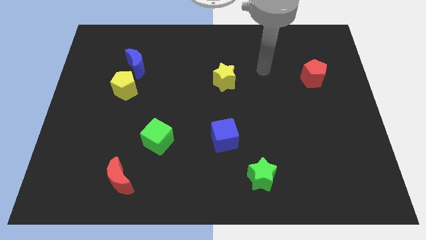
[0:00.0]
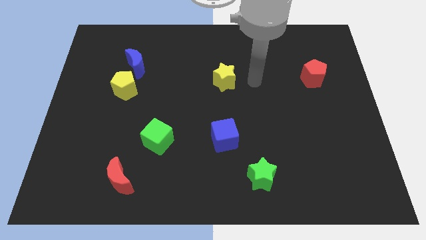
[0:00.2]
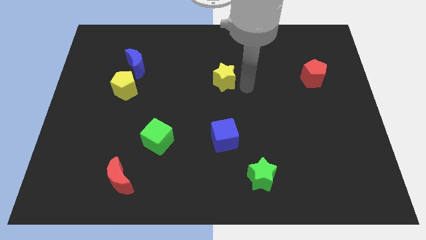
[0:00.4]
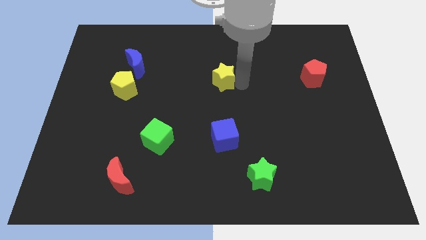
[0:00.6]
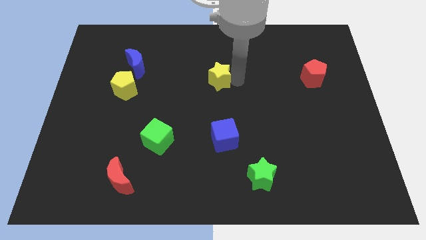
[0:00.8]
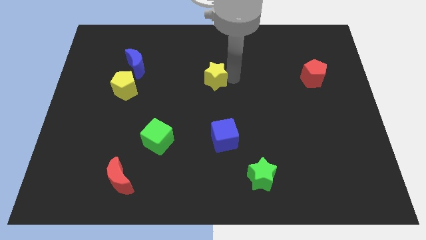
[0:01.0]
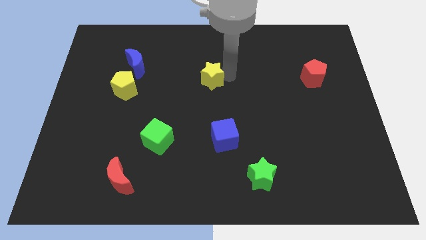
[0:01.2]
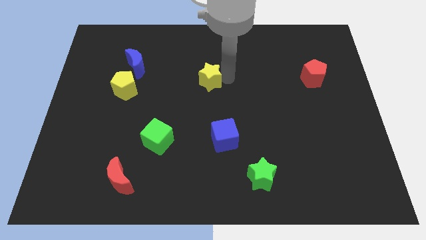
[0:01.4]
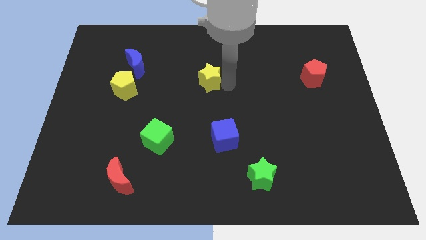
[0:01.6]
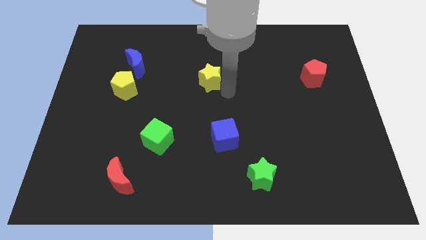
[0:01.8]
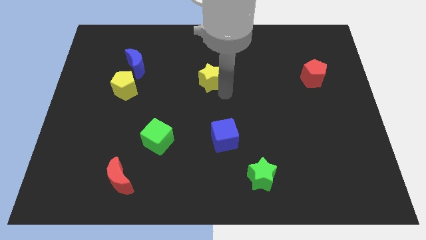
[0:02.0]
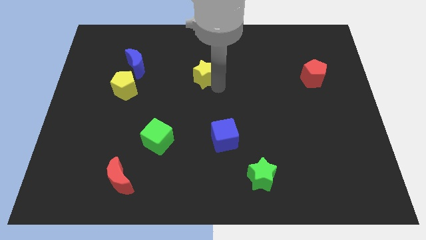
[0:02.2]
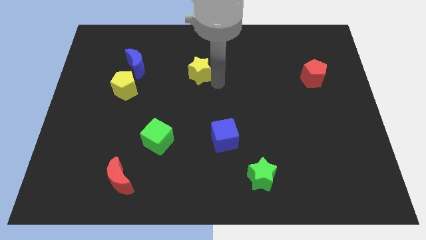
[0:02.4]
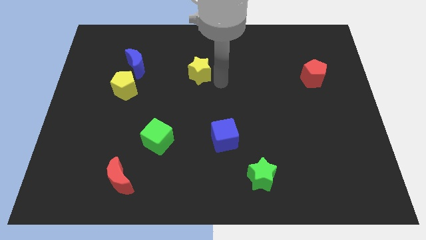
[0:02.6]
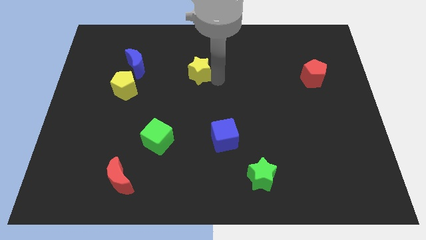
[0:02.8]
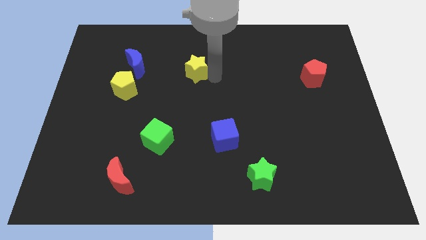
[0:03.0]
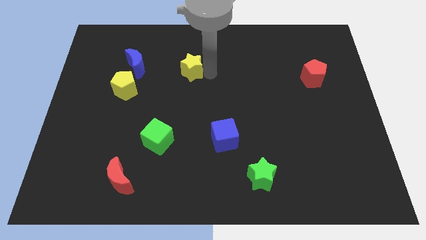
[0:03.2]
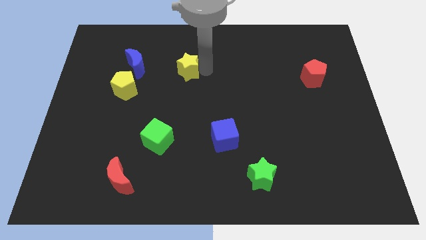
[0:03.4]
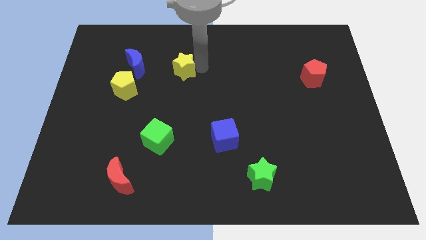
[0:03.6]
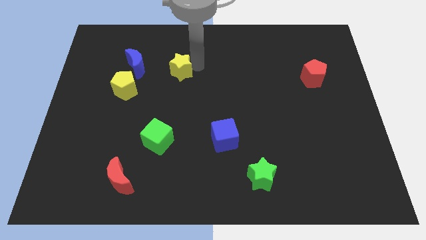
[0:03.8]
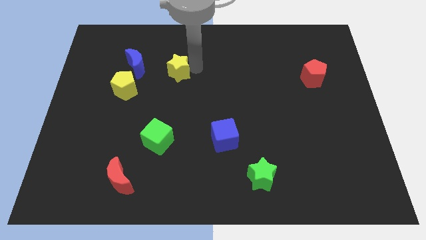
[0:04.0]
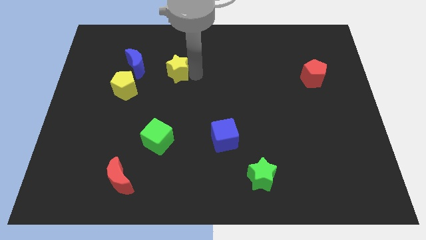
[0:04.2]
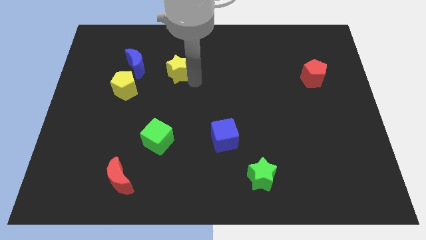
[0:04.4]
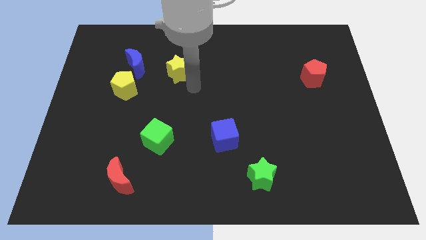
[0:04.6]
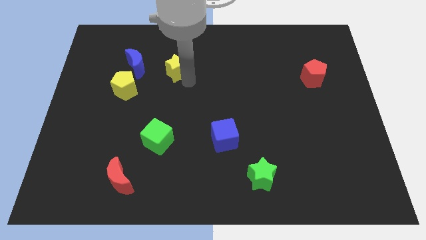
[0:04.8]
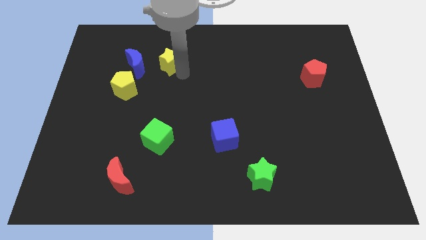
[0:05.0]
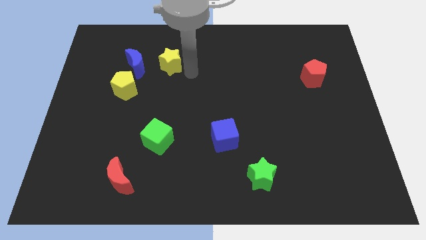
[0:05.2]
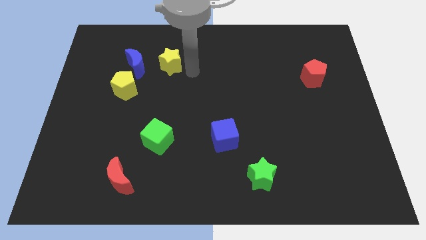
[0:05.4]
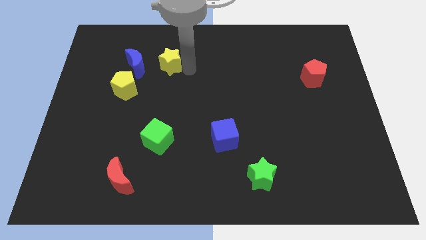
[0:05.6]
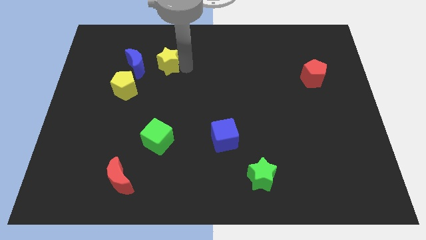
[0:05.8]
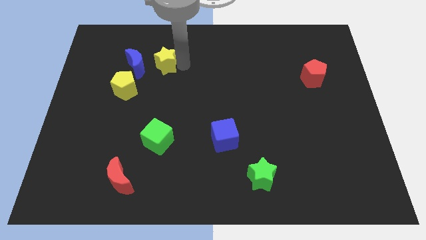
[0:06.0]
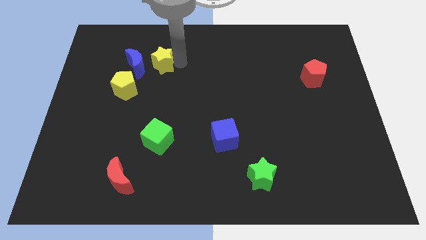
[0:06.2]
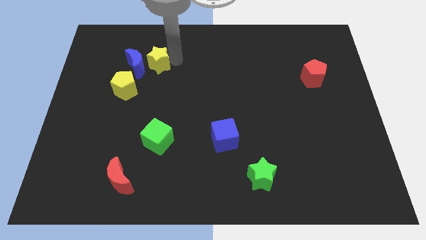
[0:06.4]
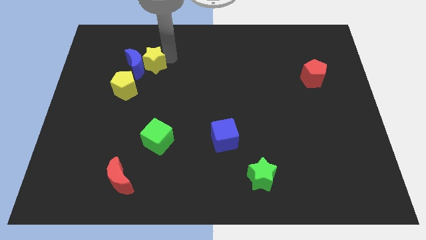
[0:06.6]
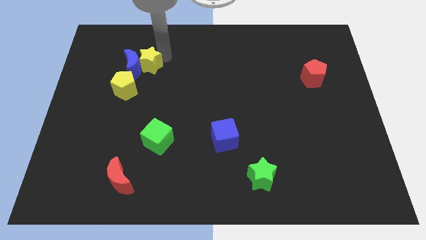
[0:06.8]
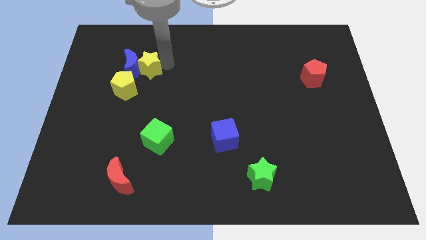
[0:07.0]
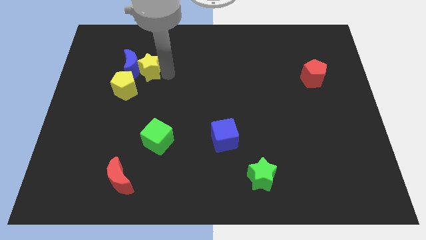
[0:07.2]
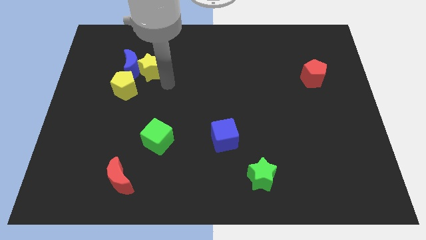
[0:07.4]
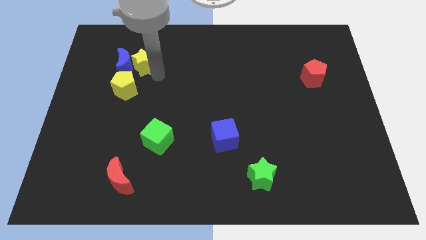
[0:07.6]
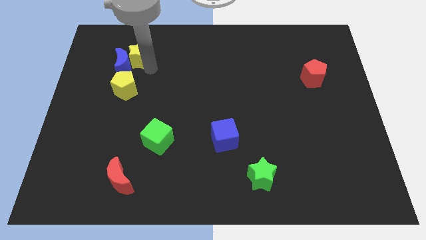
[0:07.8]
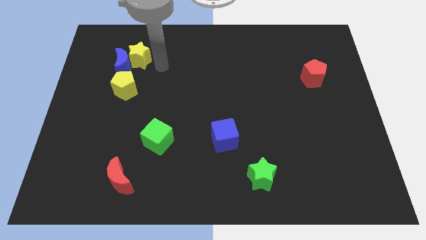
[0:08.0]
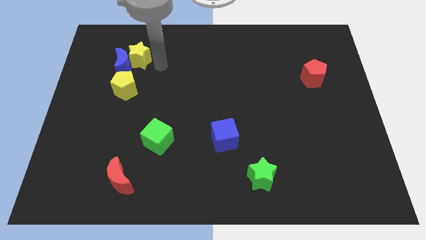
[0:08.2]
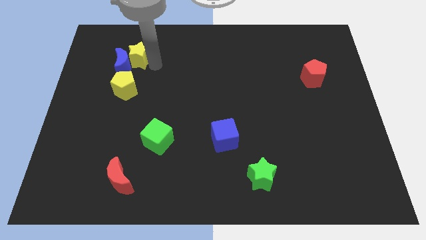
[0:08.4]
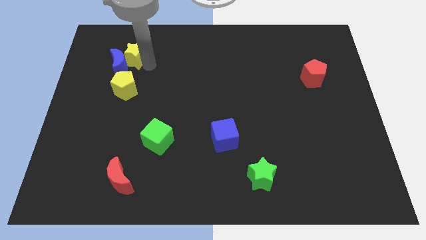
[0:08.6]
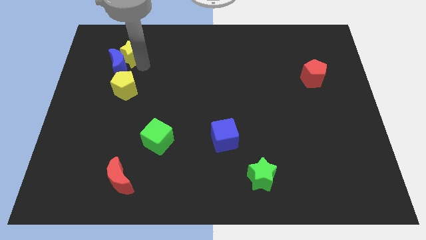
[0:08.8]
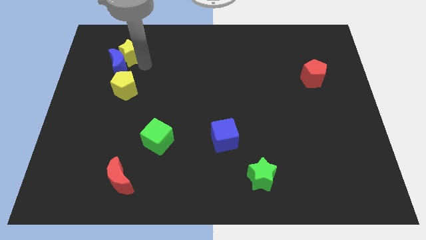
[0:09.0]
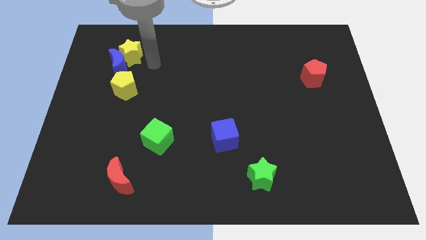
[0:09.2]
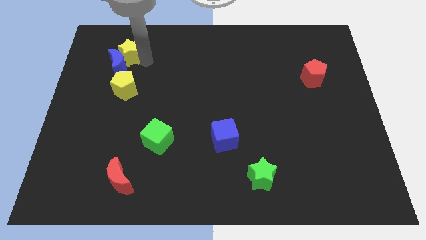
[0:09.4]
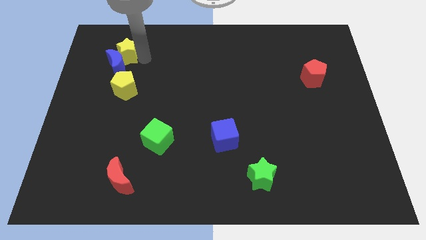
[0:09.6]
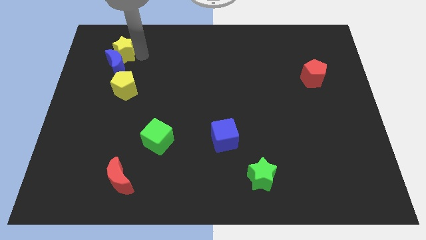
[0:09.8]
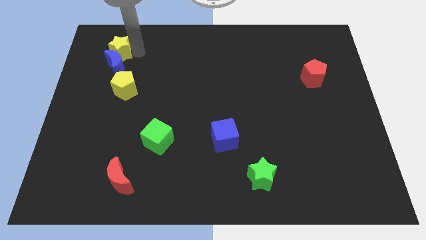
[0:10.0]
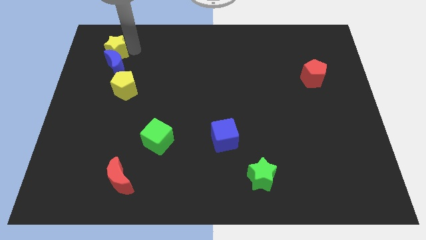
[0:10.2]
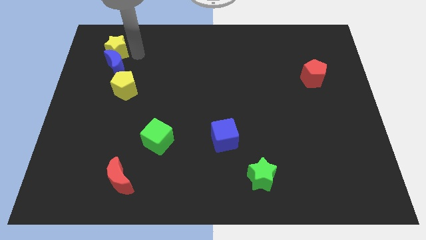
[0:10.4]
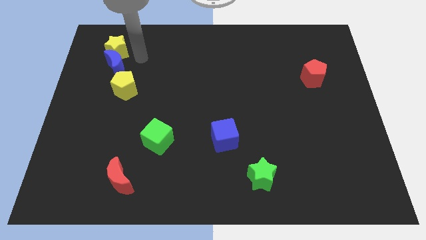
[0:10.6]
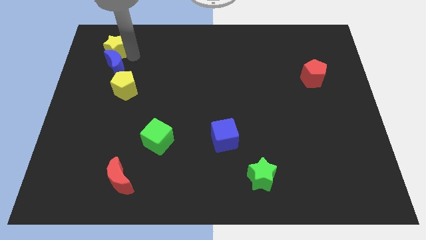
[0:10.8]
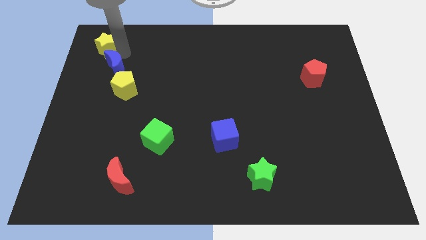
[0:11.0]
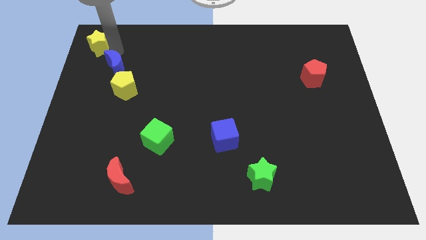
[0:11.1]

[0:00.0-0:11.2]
slide the yellow star to the upper left corner

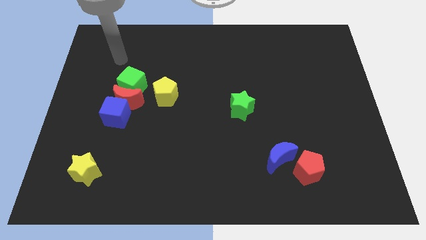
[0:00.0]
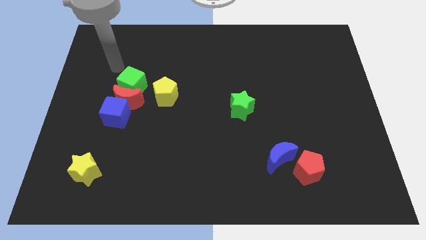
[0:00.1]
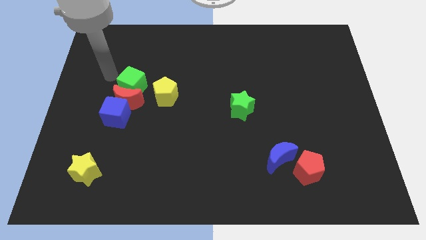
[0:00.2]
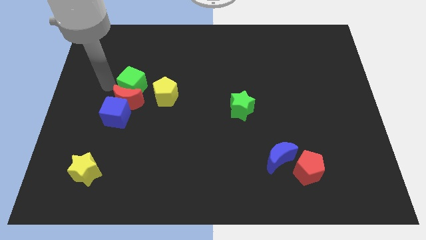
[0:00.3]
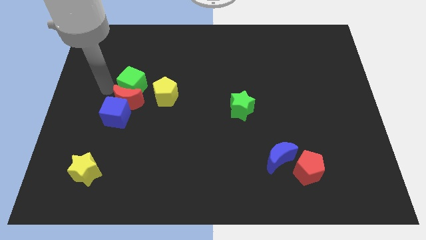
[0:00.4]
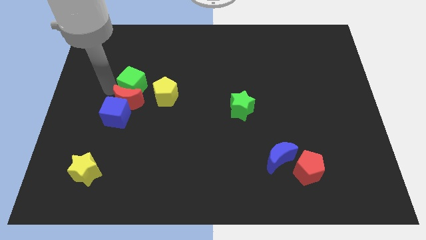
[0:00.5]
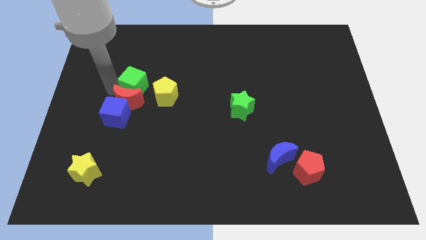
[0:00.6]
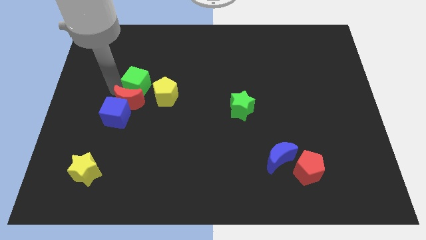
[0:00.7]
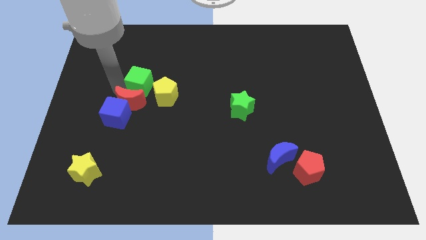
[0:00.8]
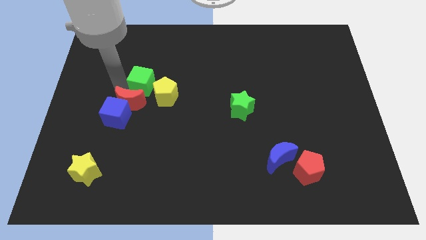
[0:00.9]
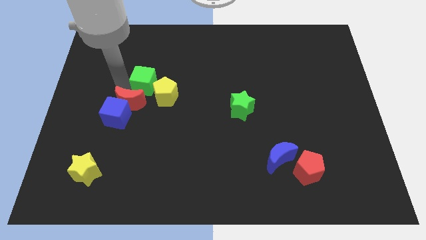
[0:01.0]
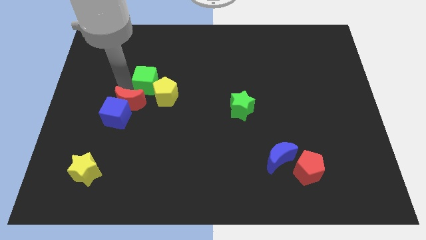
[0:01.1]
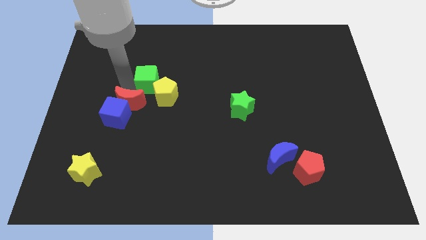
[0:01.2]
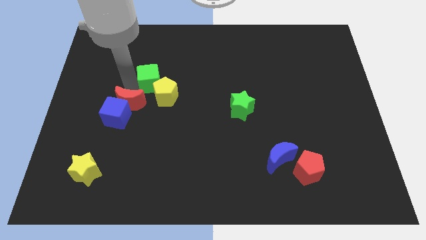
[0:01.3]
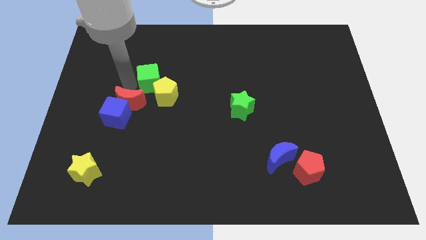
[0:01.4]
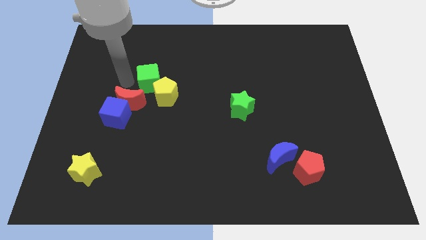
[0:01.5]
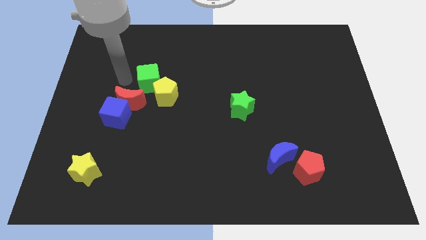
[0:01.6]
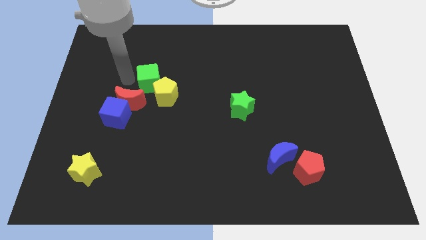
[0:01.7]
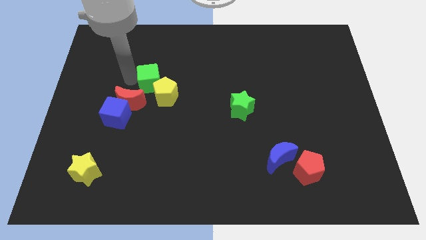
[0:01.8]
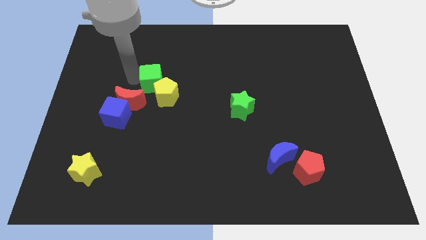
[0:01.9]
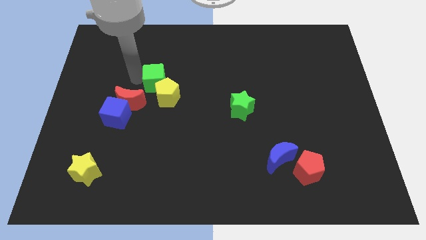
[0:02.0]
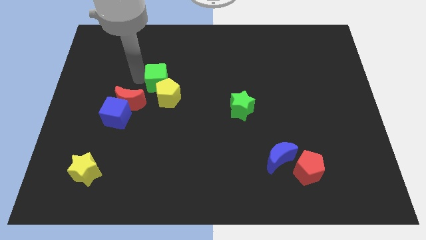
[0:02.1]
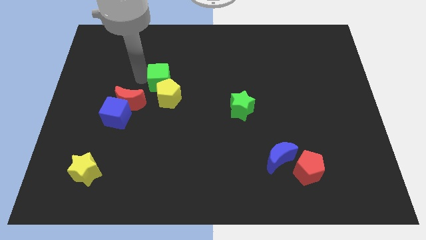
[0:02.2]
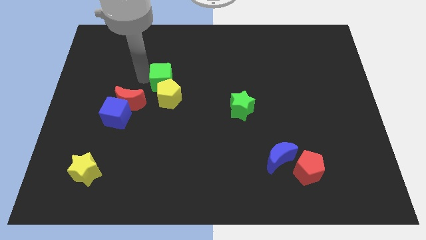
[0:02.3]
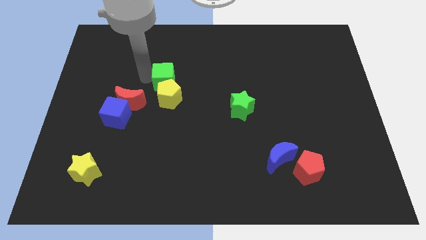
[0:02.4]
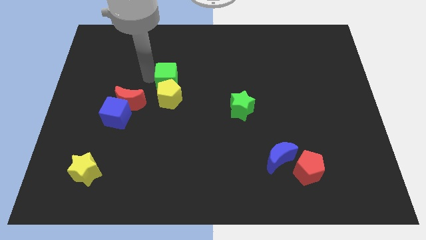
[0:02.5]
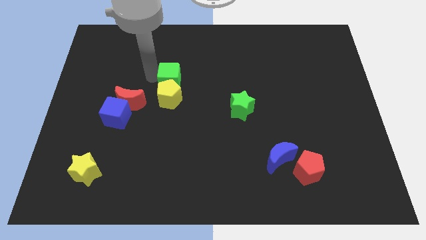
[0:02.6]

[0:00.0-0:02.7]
put the green cube to the center
